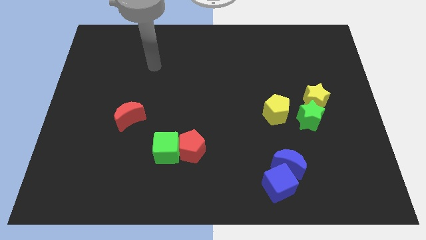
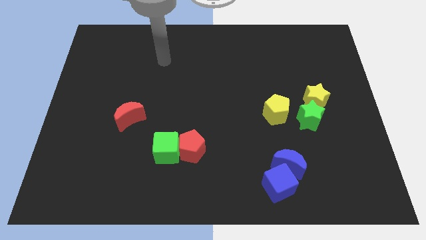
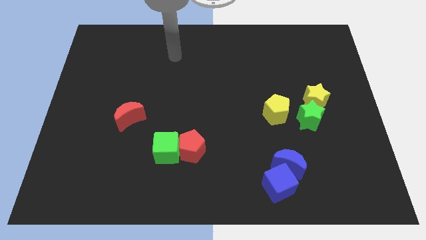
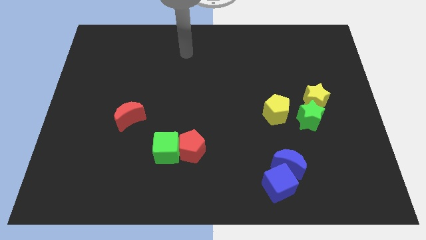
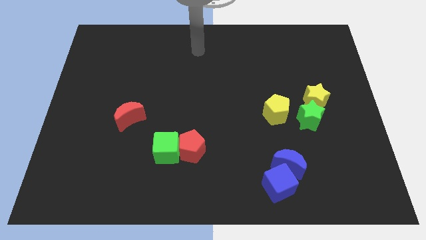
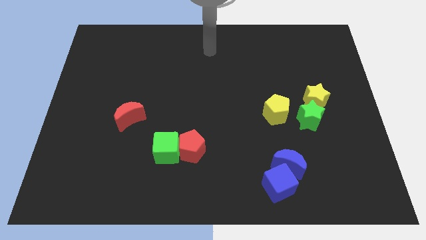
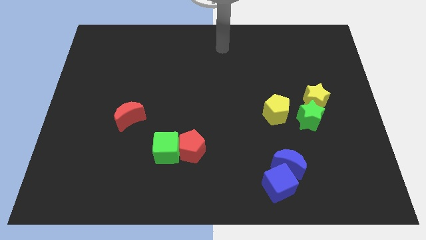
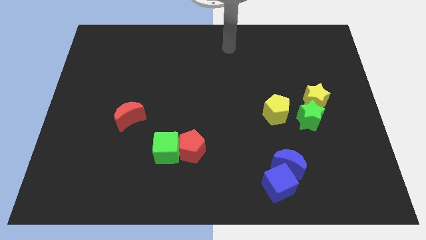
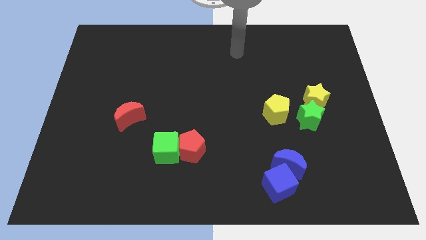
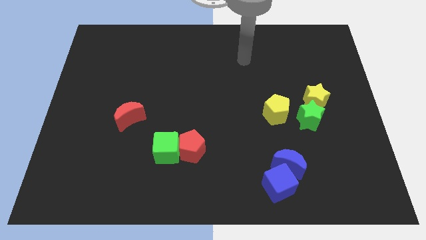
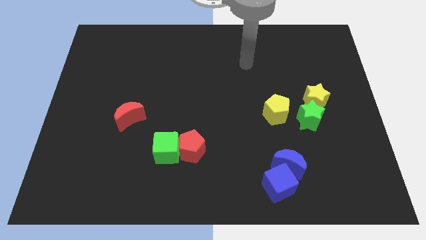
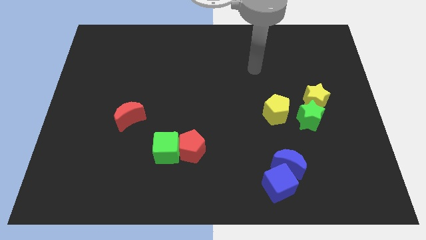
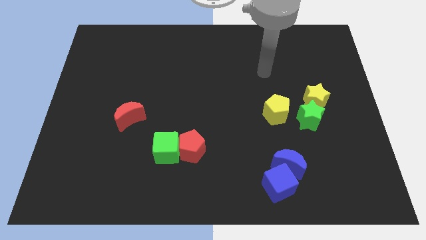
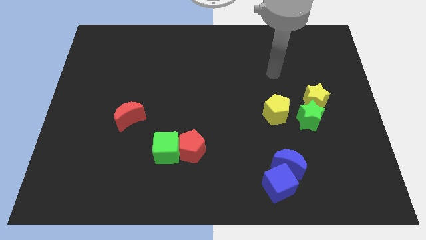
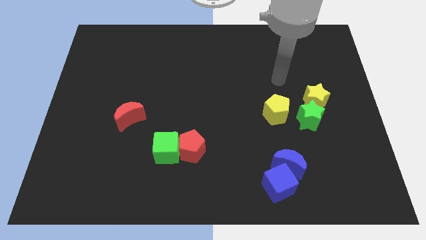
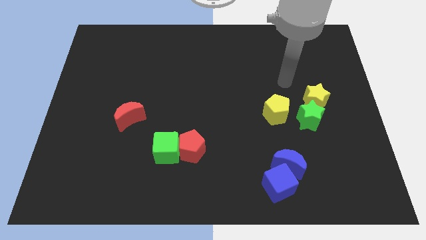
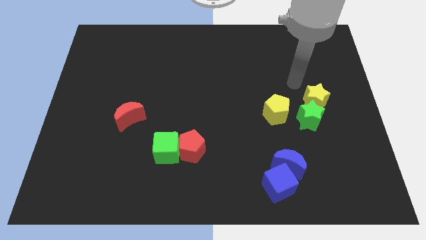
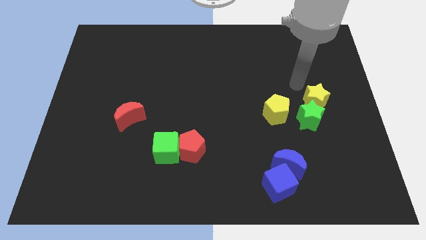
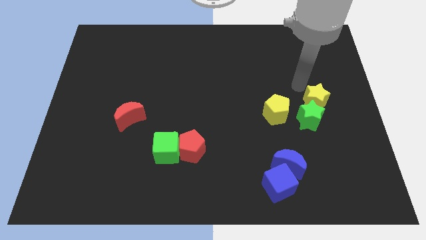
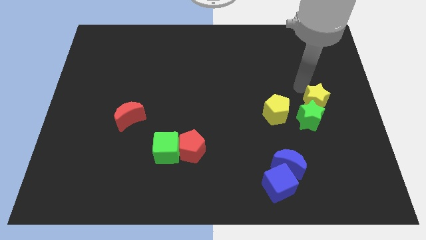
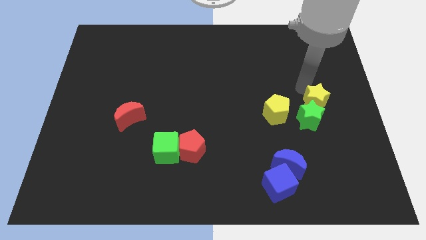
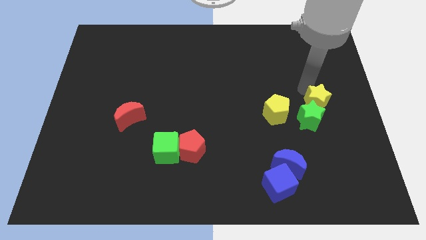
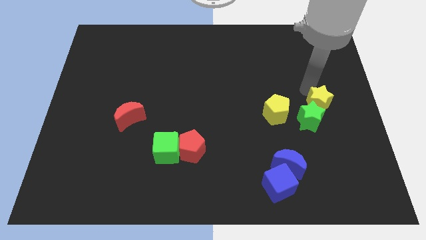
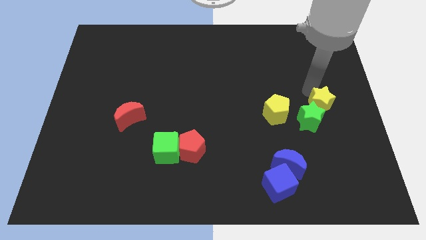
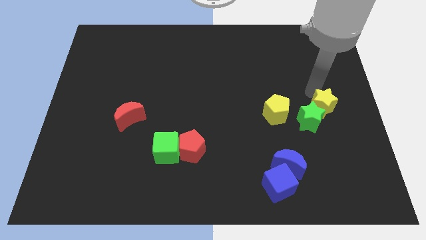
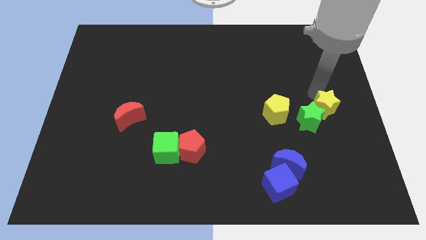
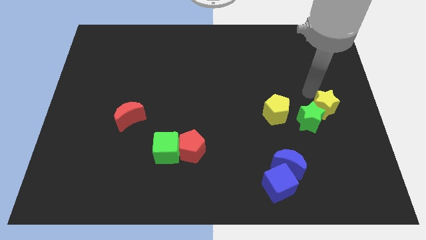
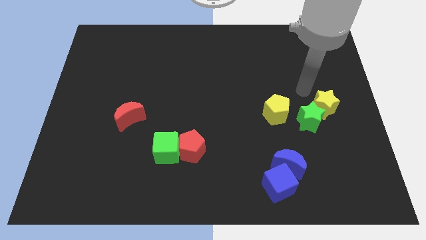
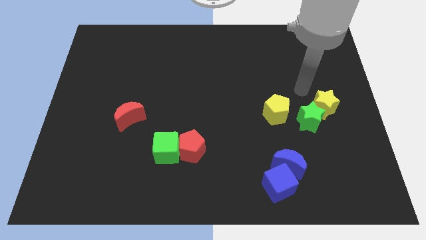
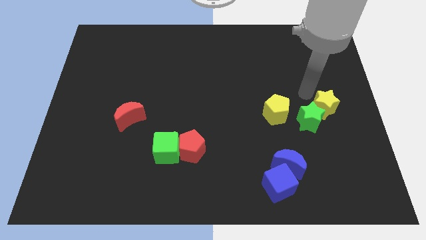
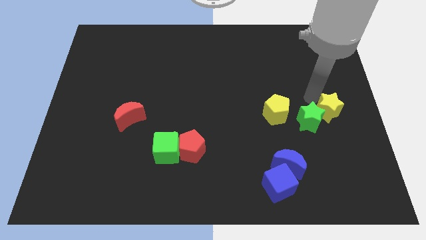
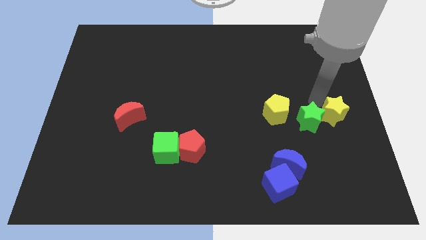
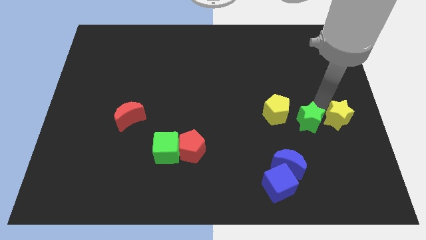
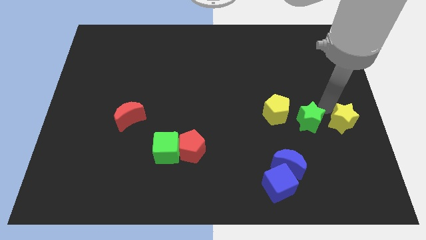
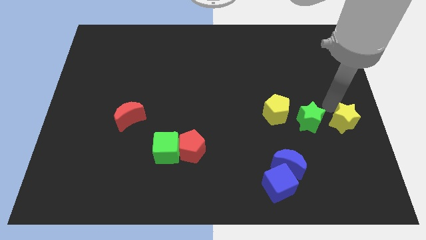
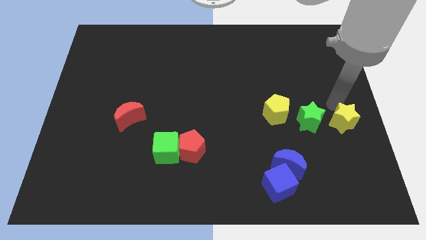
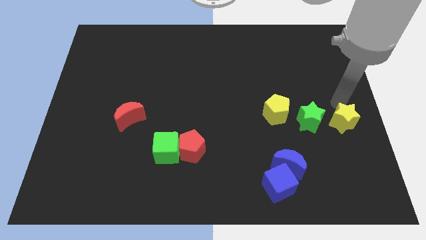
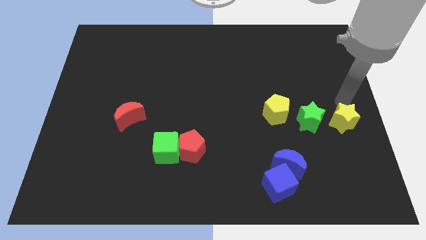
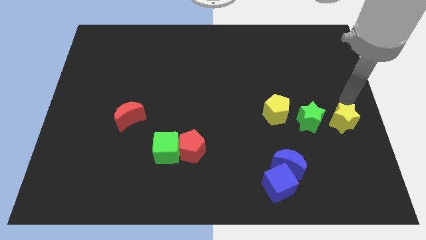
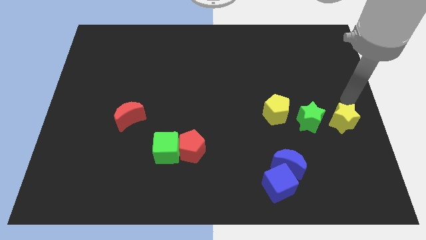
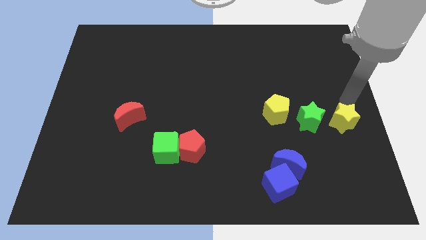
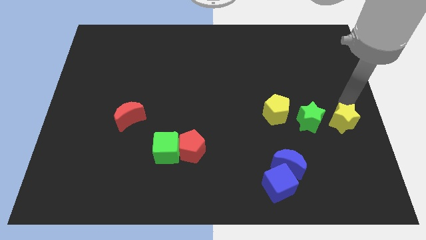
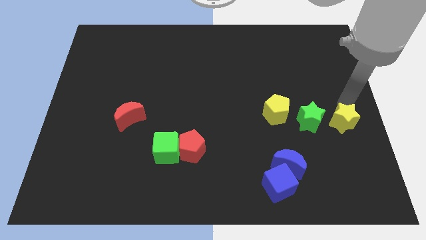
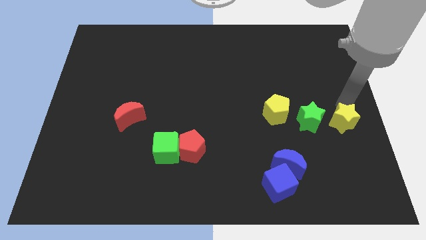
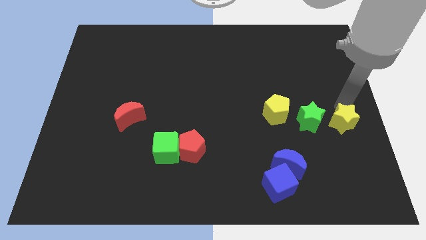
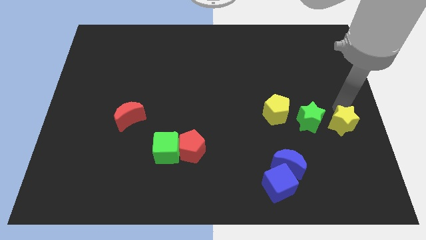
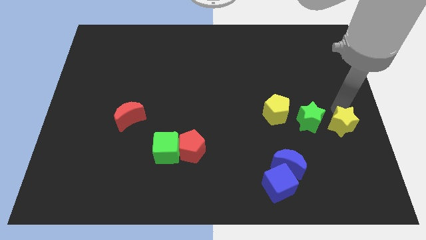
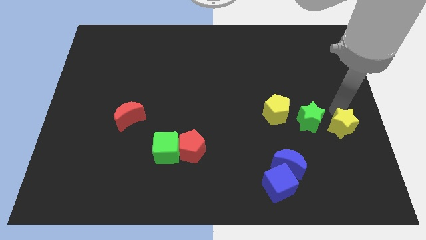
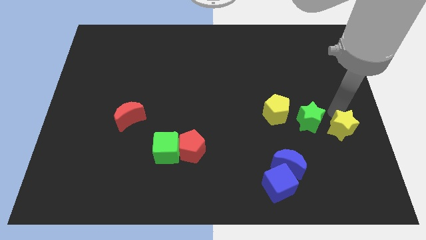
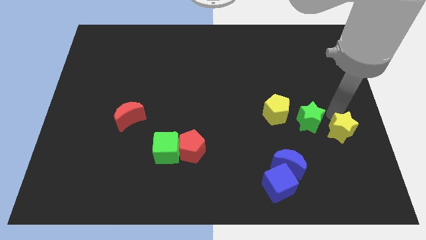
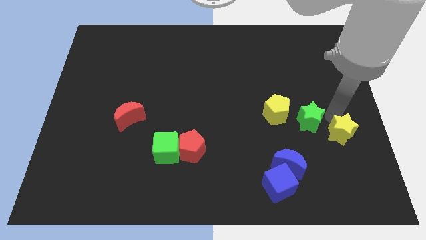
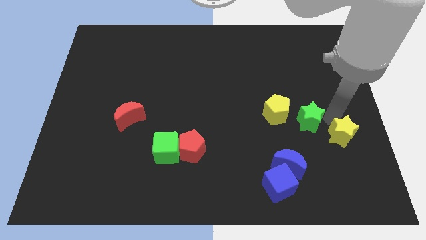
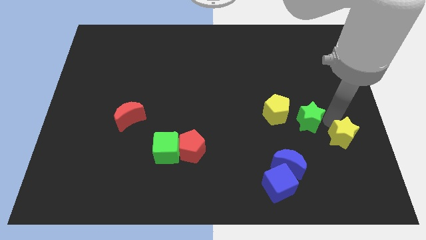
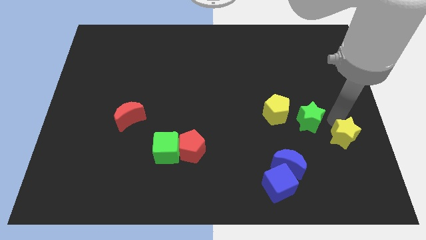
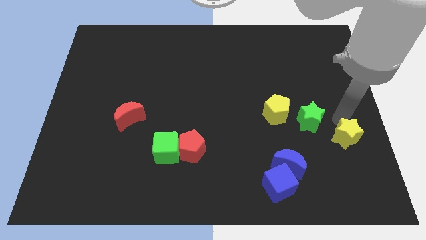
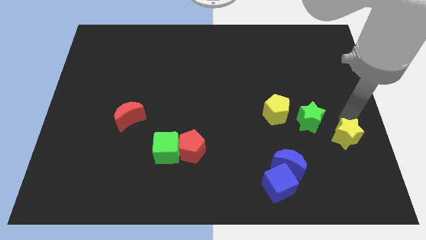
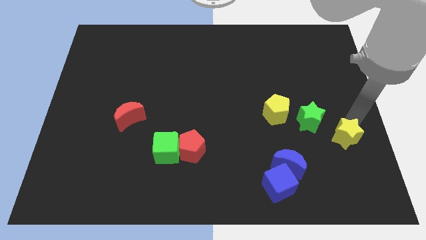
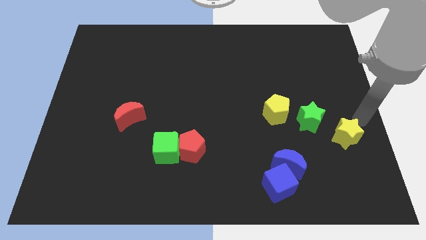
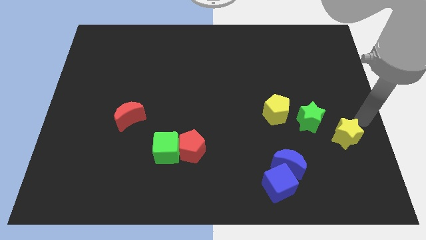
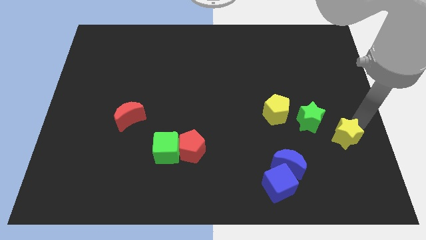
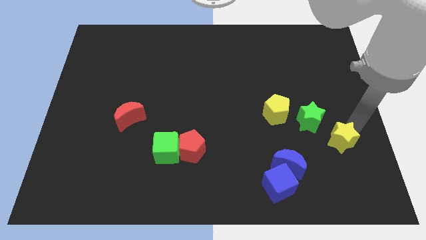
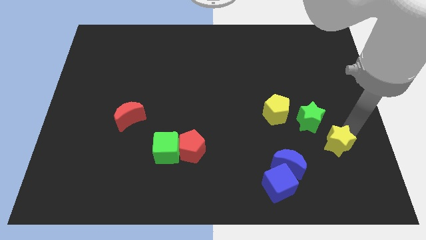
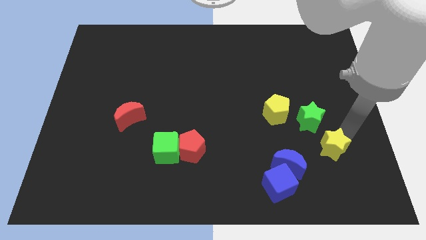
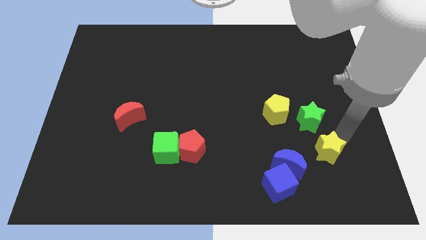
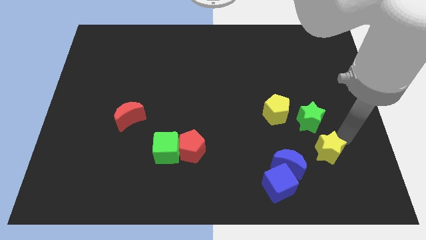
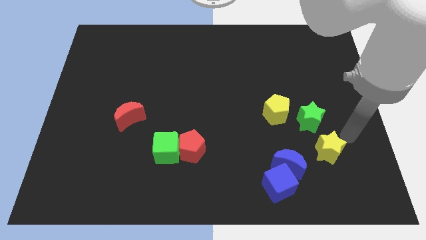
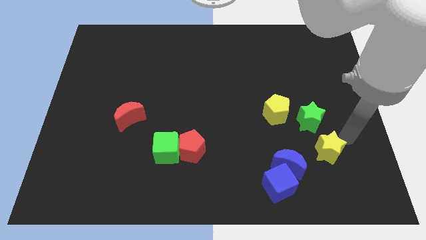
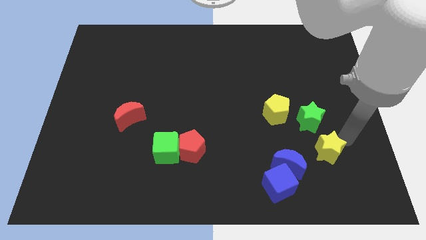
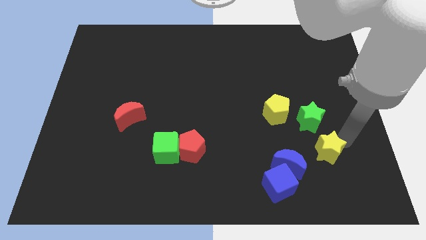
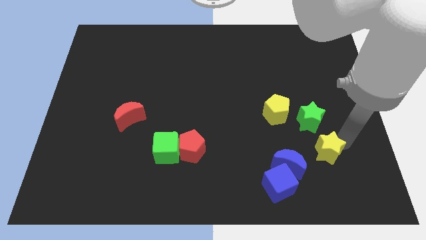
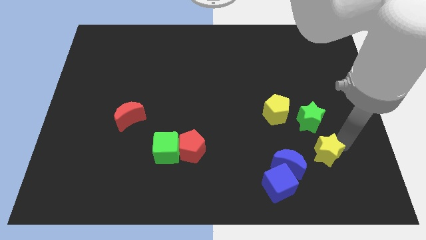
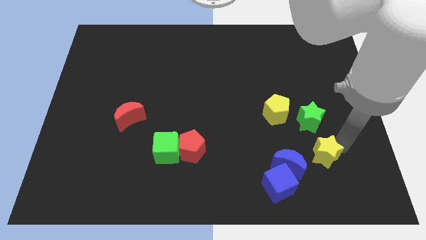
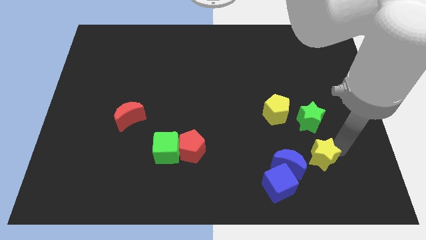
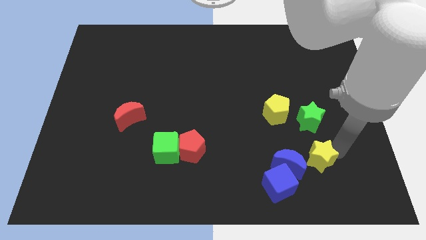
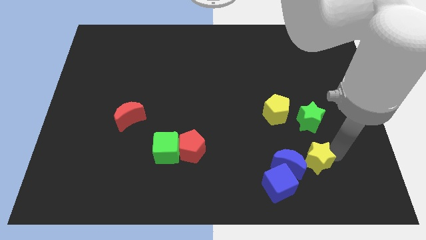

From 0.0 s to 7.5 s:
put the yellow star close to the blue moon
